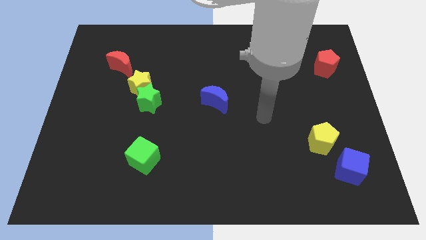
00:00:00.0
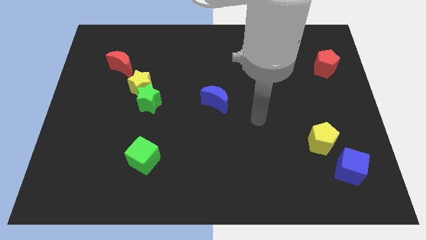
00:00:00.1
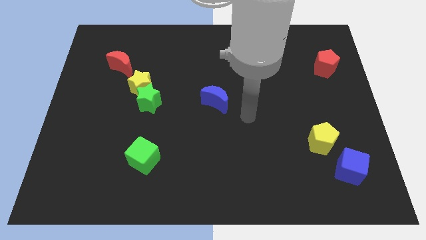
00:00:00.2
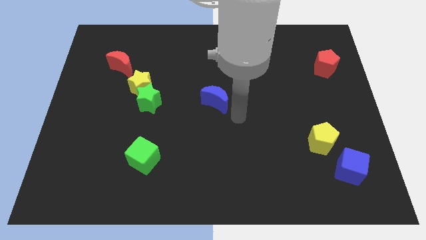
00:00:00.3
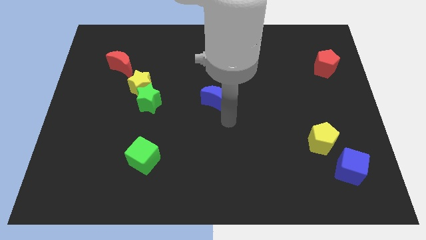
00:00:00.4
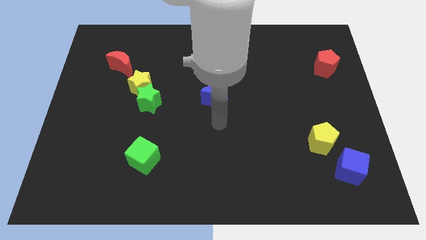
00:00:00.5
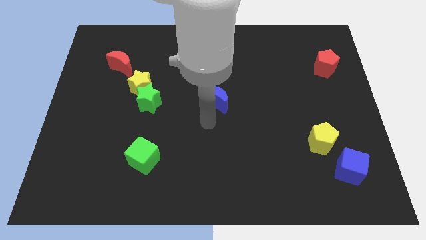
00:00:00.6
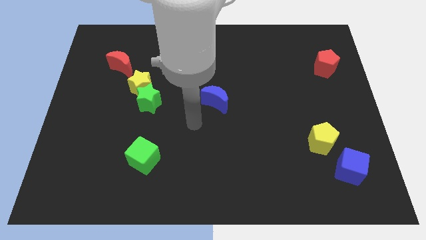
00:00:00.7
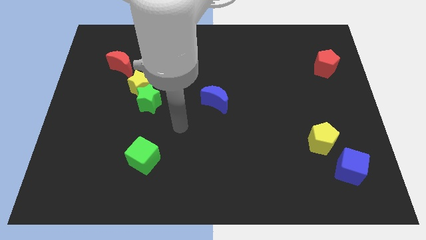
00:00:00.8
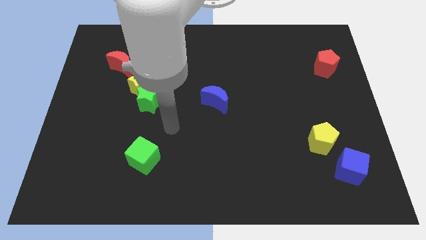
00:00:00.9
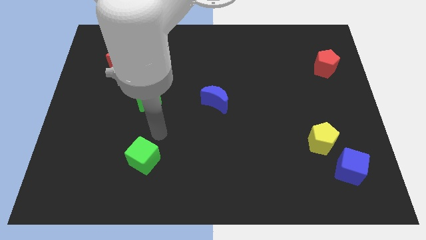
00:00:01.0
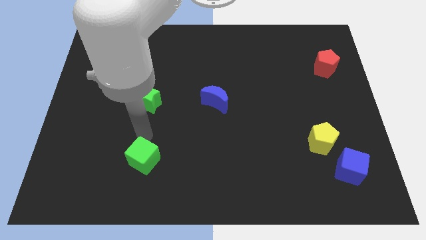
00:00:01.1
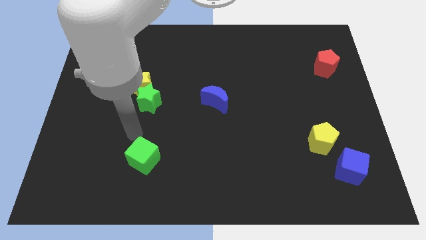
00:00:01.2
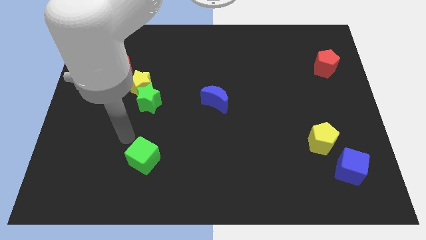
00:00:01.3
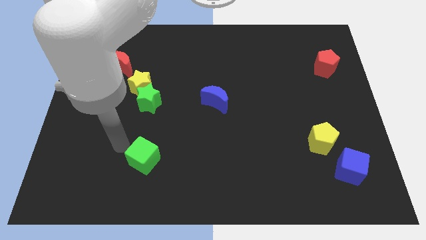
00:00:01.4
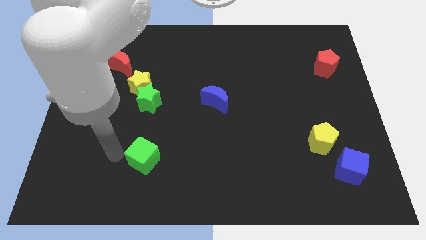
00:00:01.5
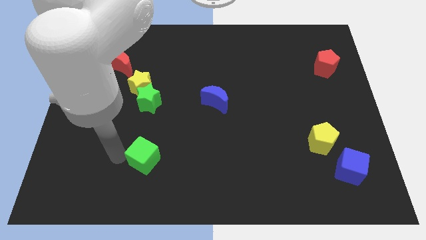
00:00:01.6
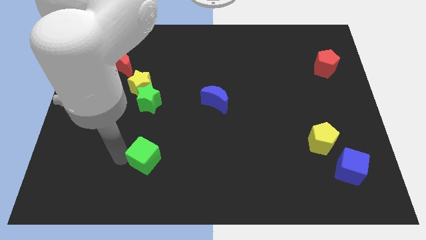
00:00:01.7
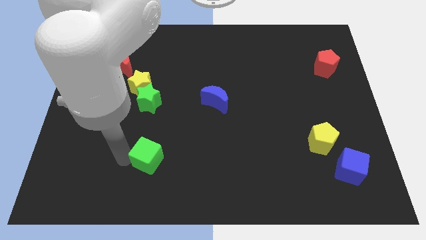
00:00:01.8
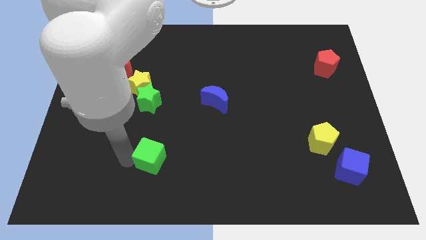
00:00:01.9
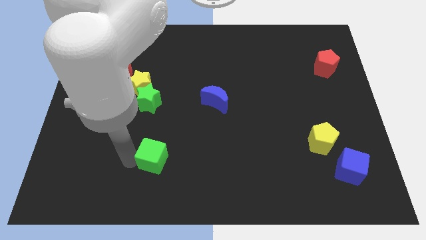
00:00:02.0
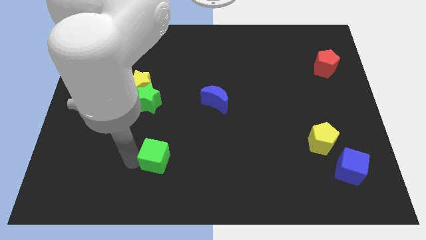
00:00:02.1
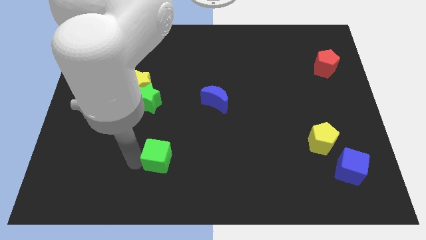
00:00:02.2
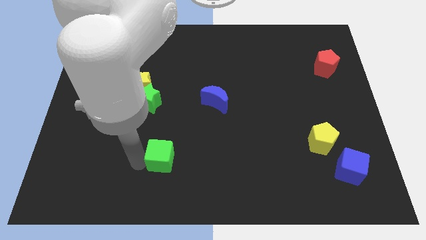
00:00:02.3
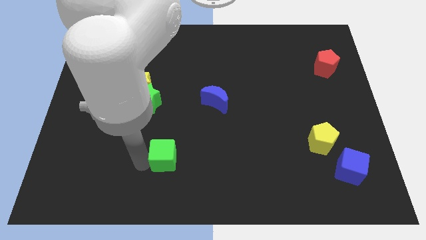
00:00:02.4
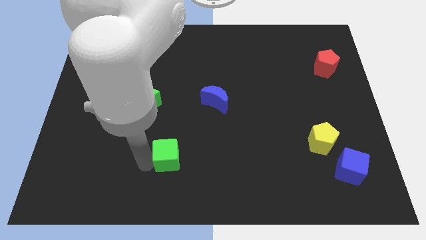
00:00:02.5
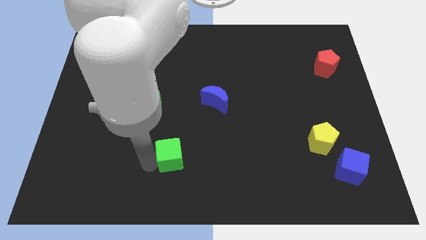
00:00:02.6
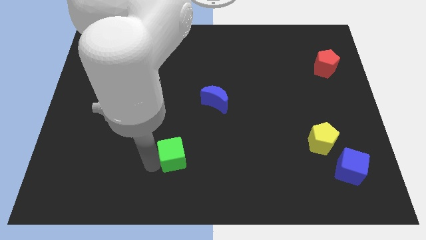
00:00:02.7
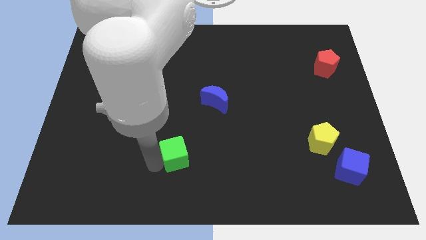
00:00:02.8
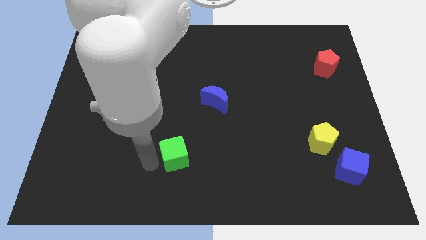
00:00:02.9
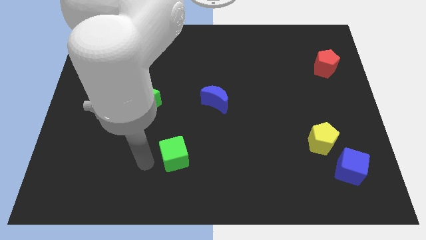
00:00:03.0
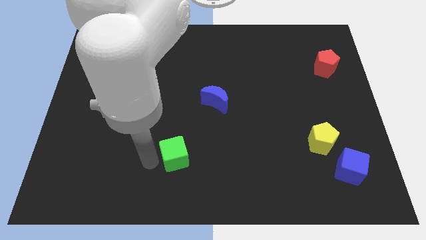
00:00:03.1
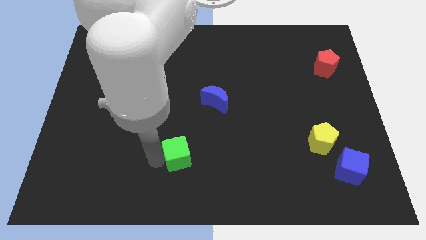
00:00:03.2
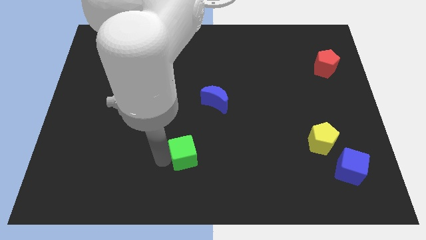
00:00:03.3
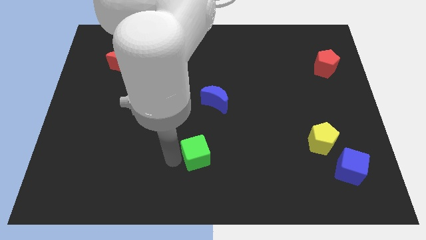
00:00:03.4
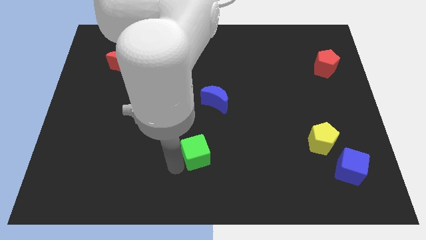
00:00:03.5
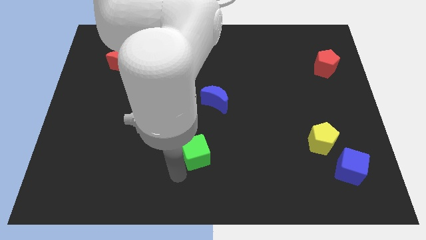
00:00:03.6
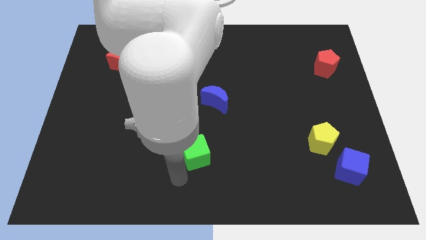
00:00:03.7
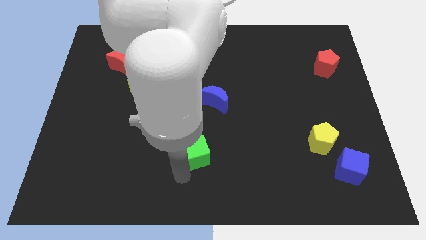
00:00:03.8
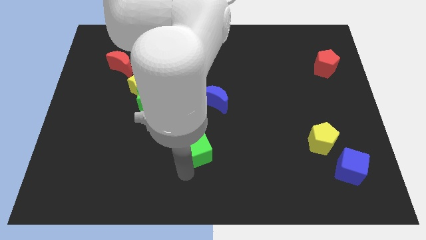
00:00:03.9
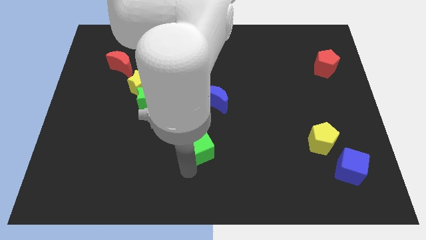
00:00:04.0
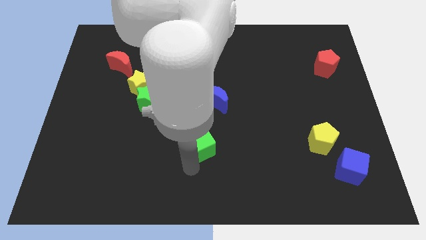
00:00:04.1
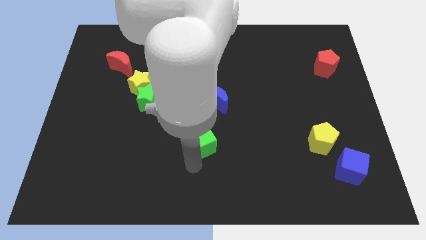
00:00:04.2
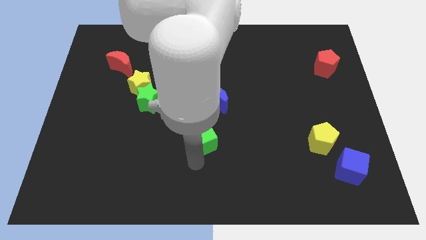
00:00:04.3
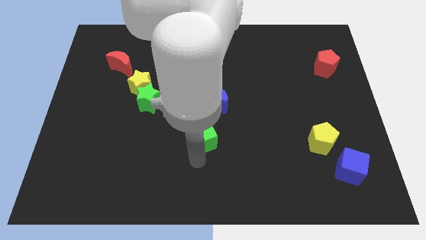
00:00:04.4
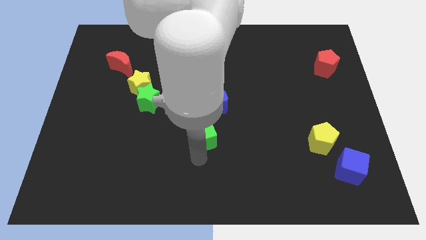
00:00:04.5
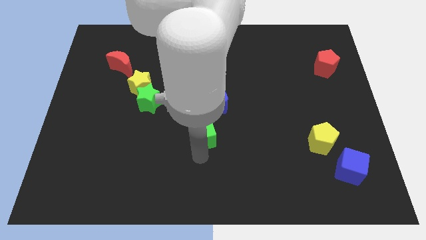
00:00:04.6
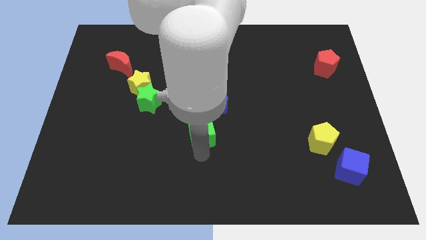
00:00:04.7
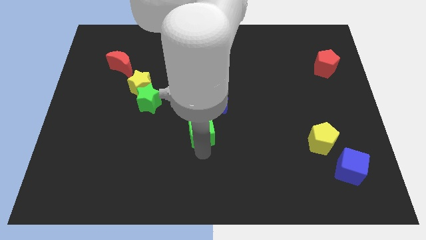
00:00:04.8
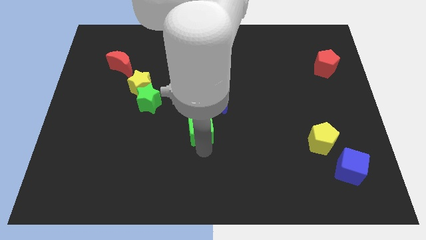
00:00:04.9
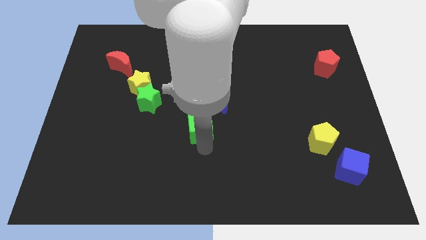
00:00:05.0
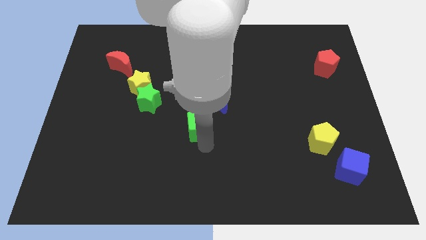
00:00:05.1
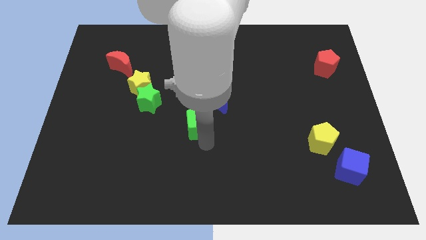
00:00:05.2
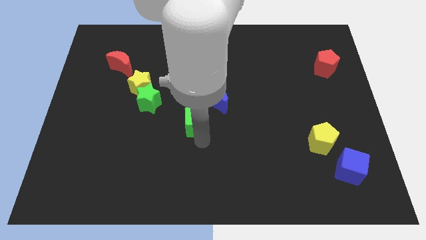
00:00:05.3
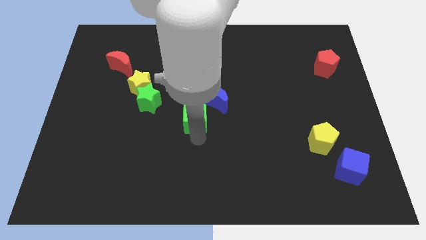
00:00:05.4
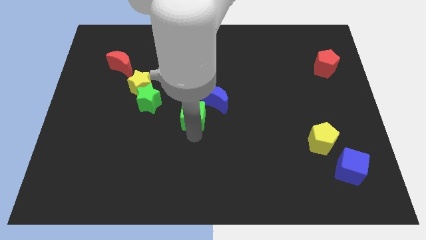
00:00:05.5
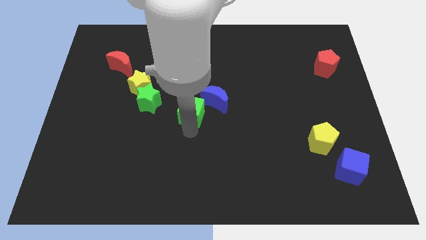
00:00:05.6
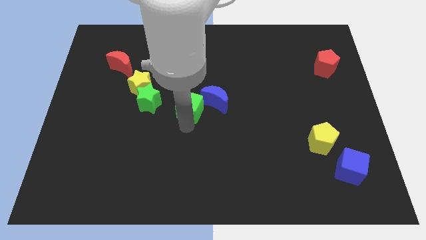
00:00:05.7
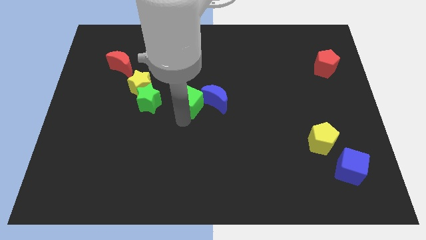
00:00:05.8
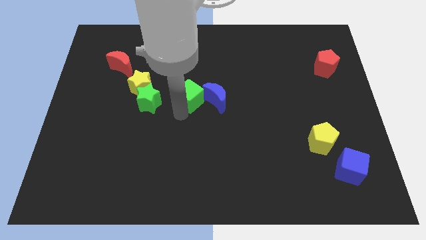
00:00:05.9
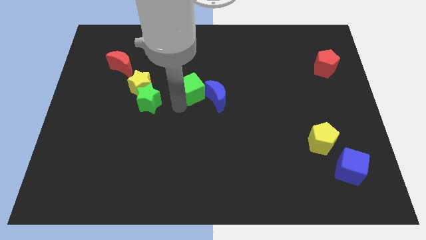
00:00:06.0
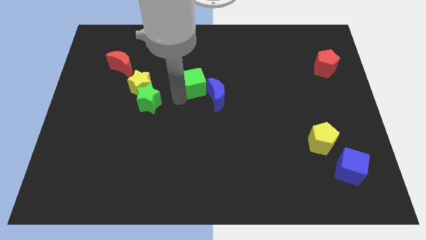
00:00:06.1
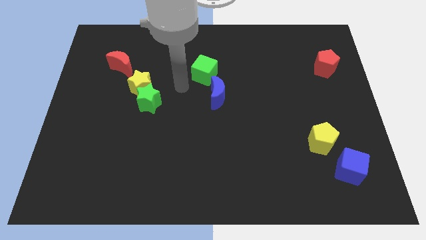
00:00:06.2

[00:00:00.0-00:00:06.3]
slide the green cube upwards and to the right

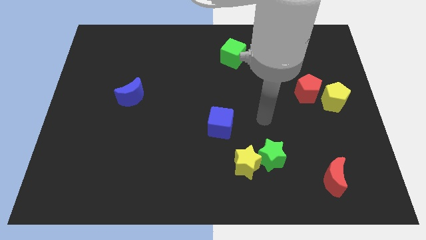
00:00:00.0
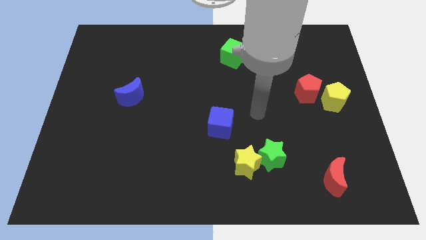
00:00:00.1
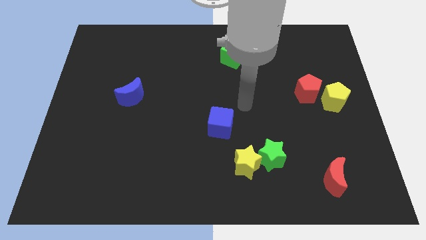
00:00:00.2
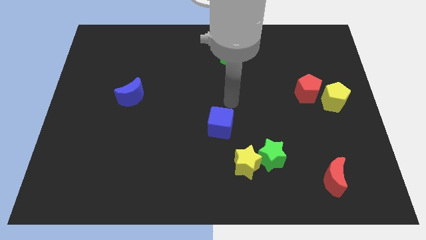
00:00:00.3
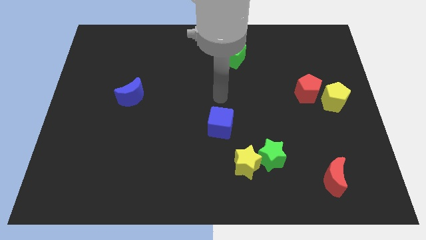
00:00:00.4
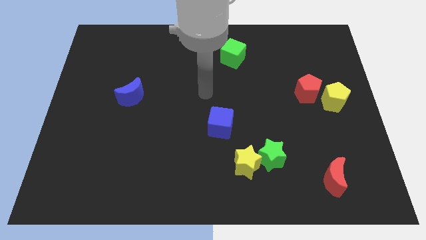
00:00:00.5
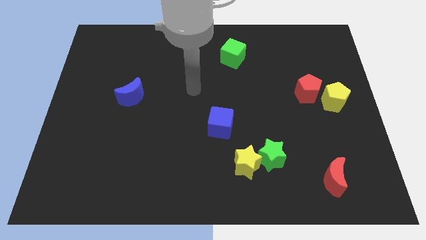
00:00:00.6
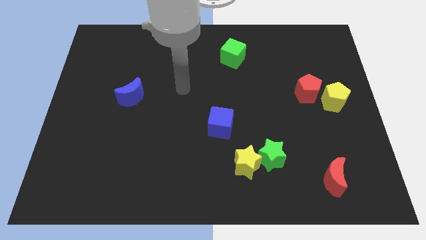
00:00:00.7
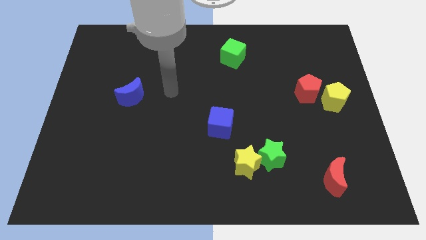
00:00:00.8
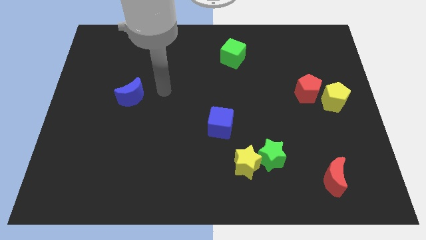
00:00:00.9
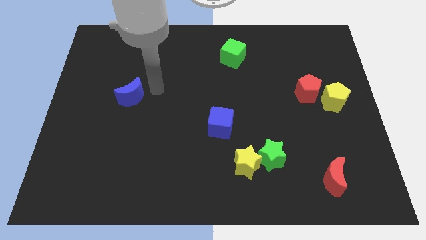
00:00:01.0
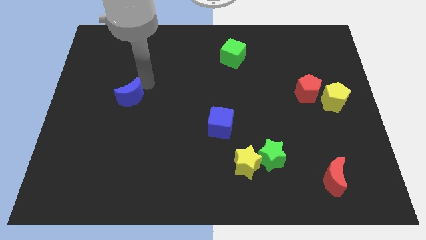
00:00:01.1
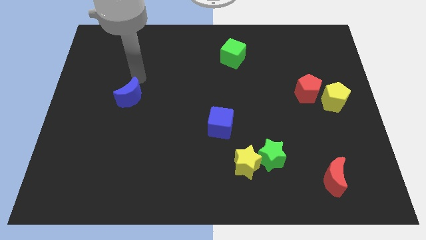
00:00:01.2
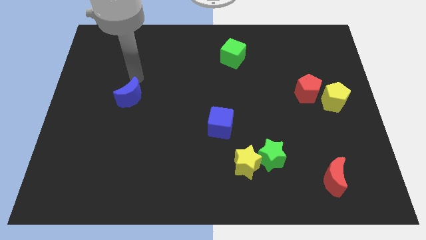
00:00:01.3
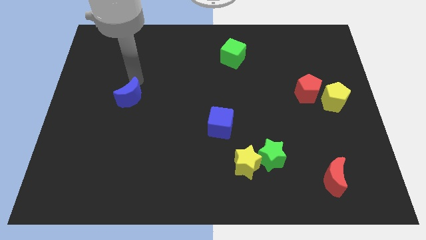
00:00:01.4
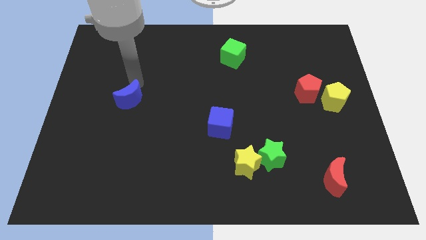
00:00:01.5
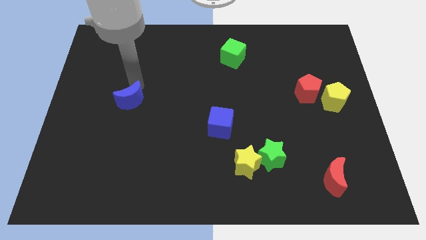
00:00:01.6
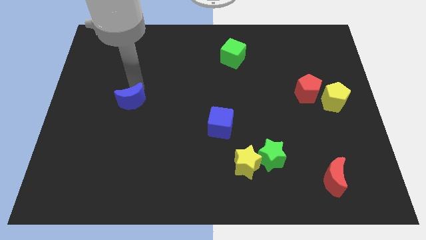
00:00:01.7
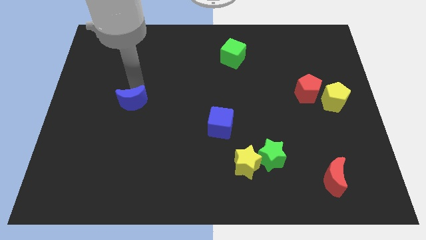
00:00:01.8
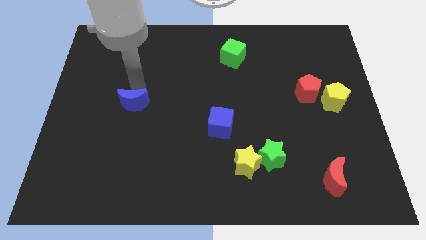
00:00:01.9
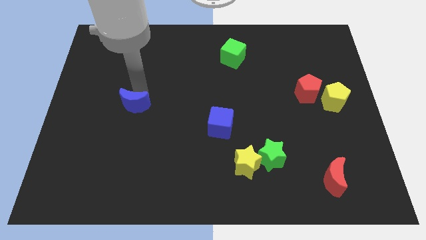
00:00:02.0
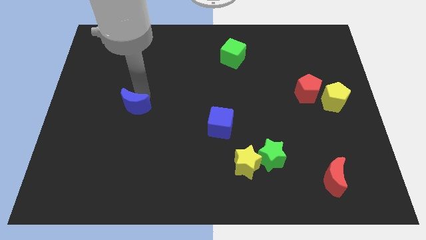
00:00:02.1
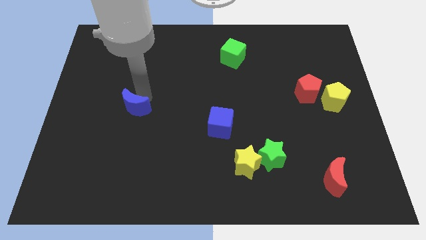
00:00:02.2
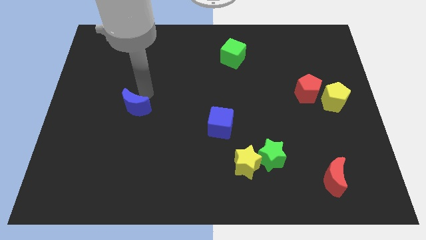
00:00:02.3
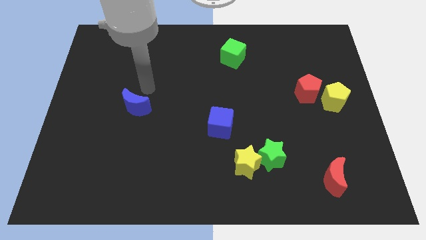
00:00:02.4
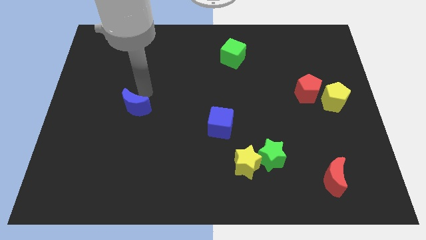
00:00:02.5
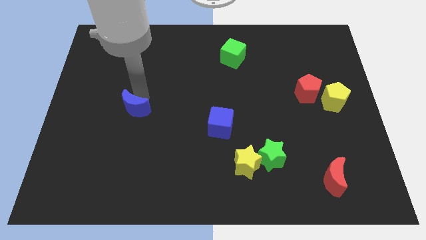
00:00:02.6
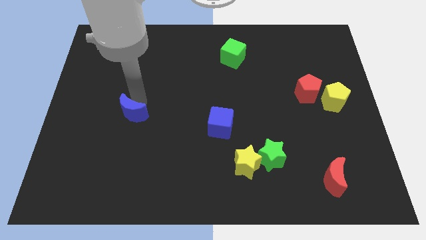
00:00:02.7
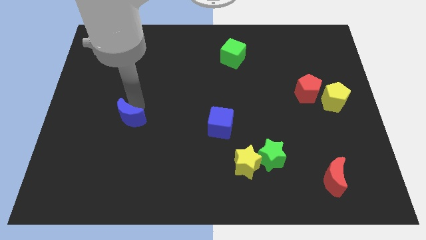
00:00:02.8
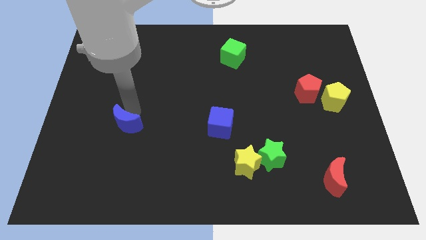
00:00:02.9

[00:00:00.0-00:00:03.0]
slightly slide the blue moon down
